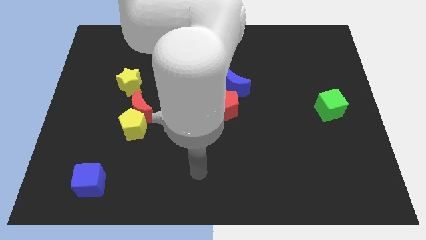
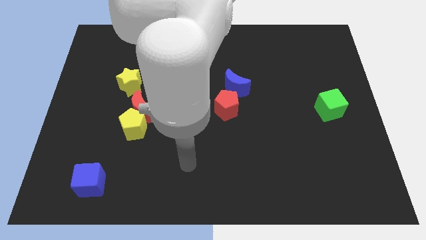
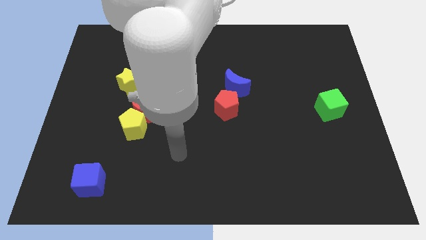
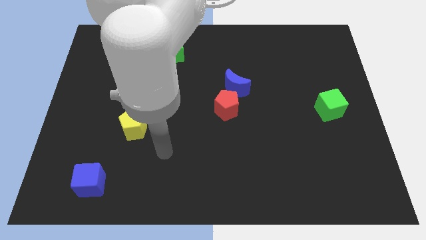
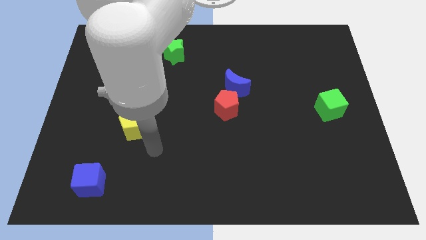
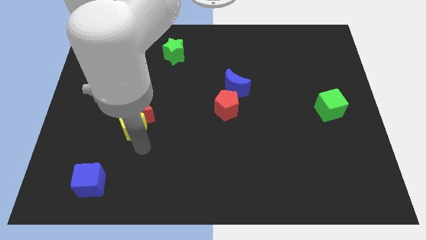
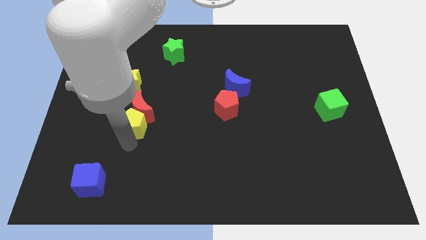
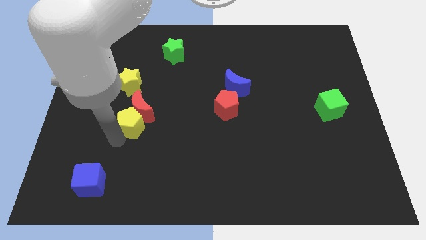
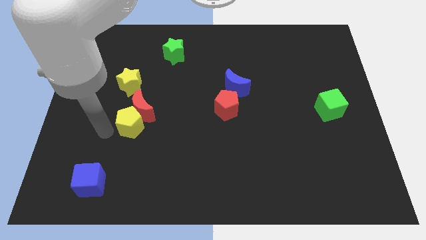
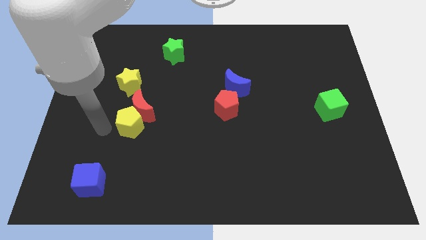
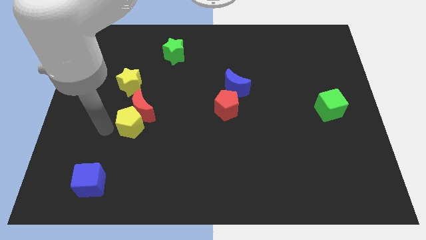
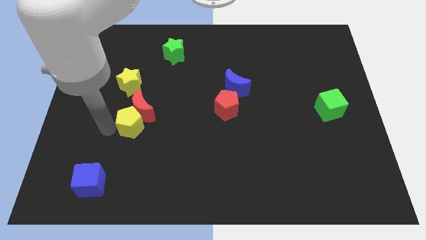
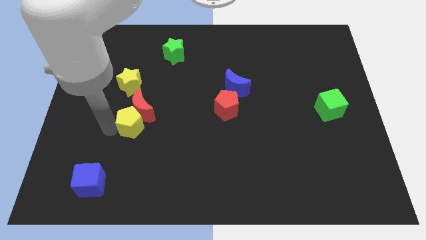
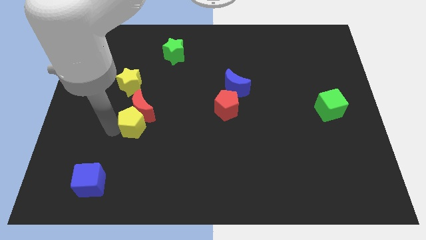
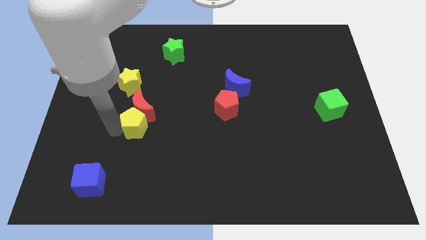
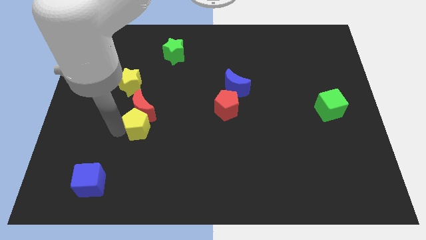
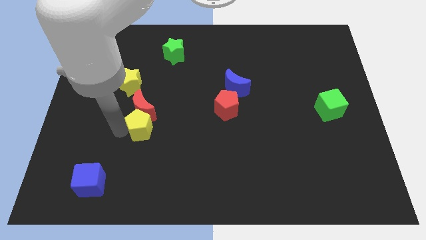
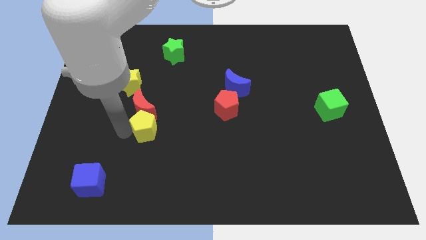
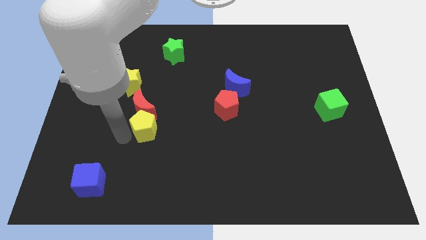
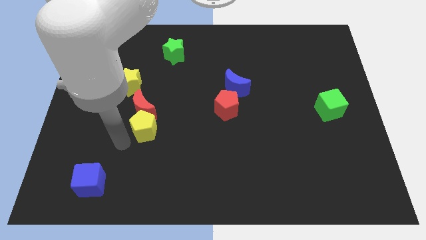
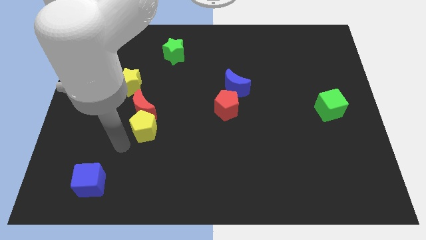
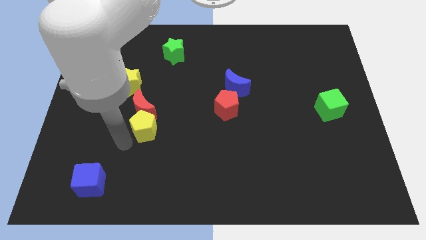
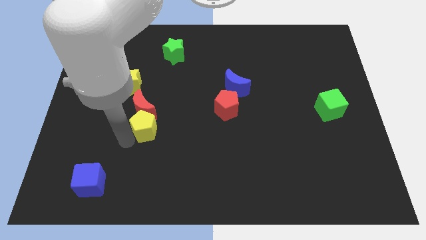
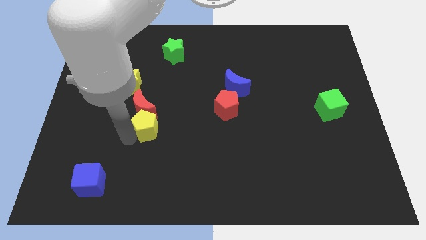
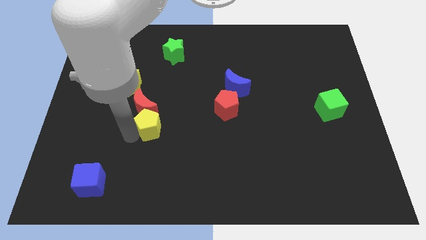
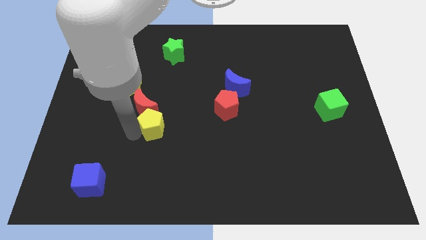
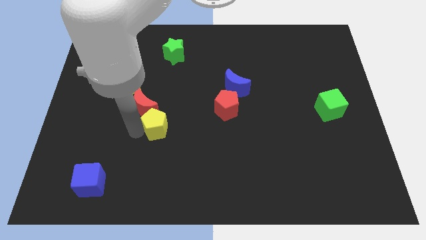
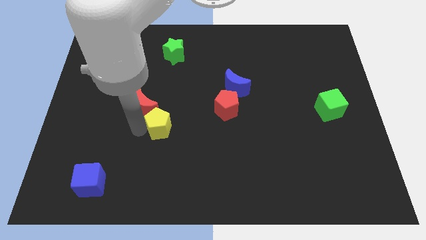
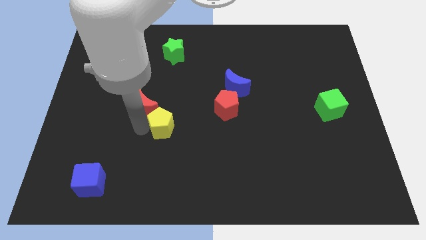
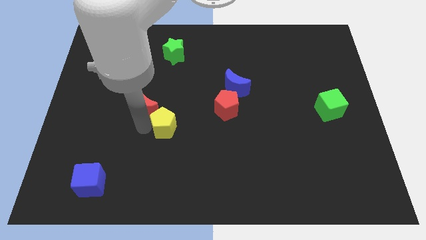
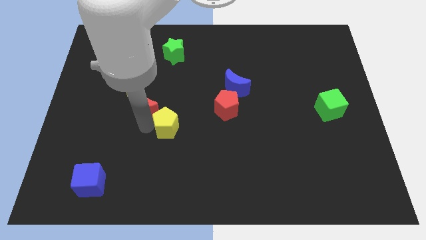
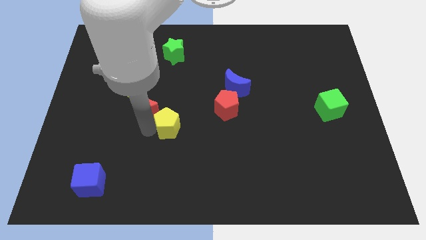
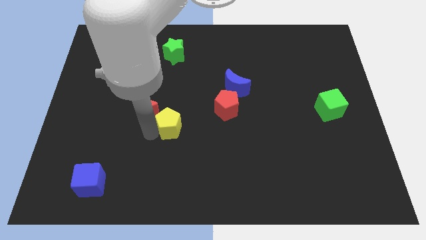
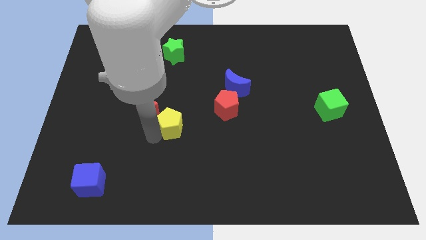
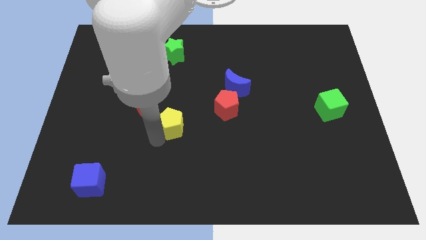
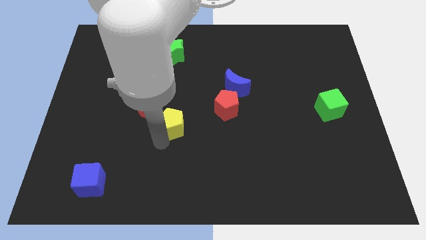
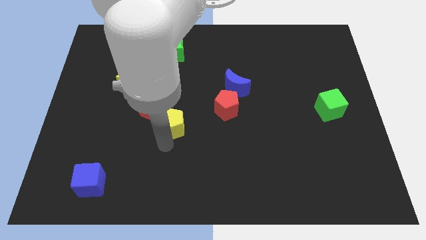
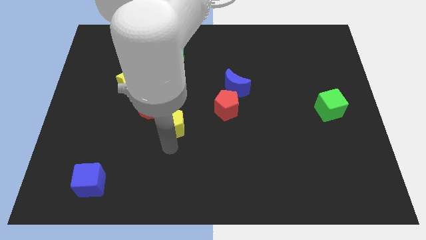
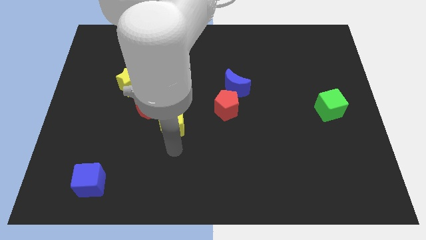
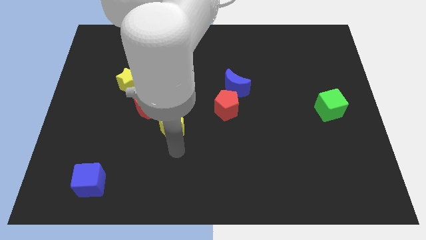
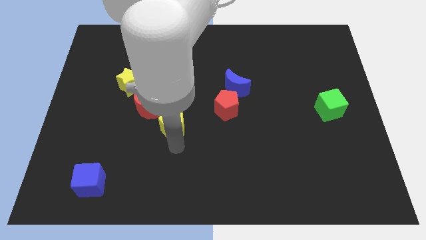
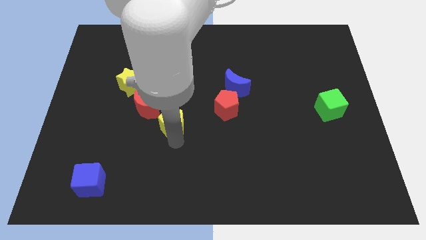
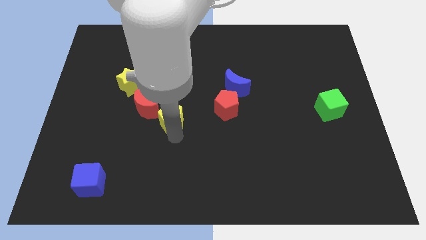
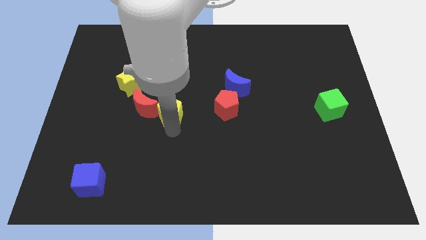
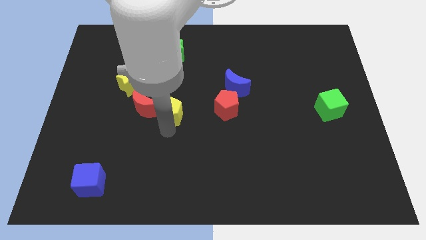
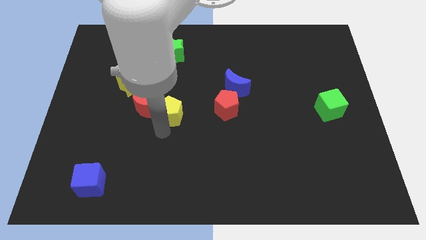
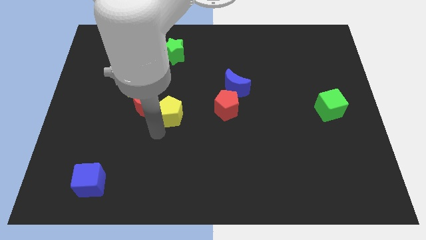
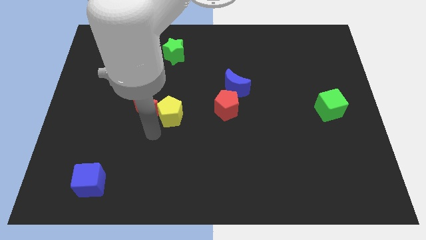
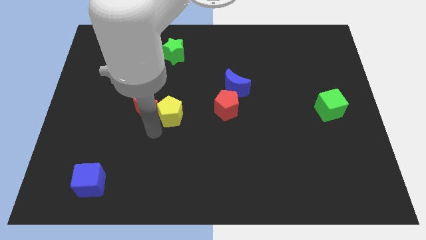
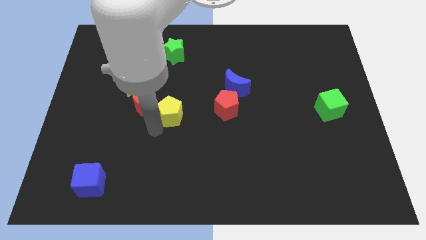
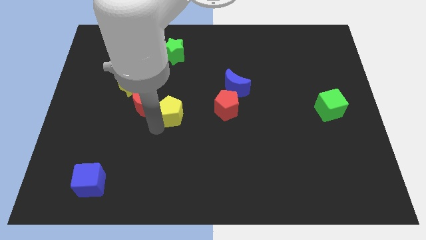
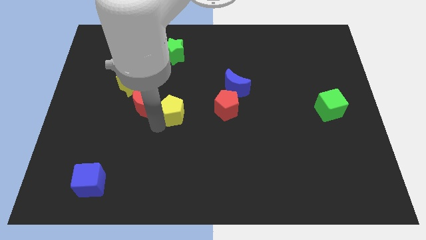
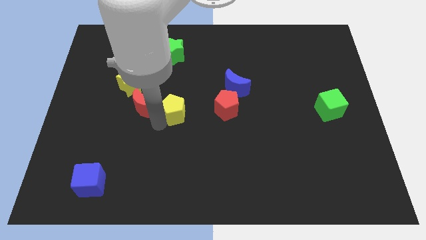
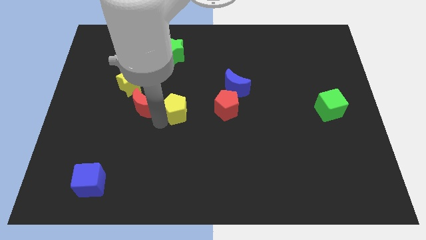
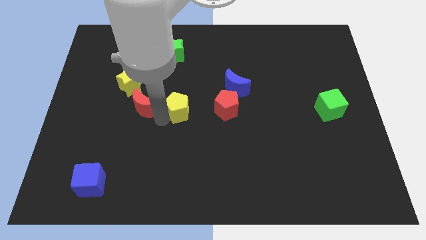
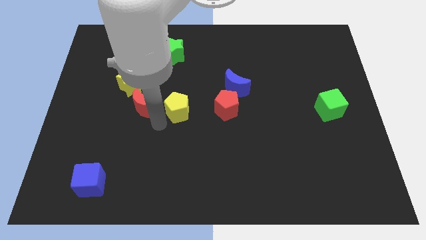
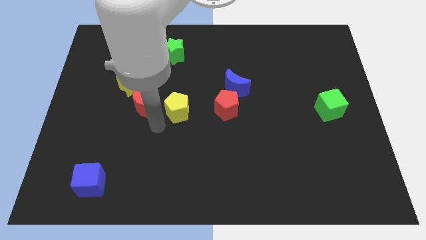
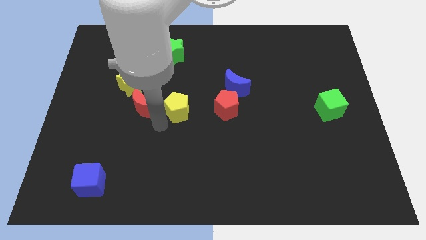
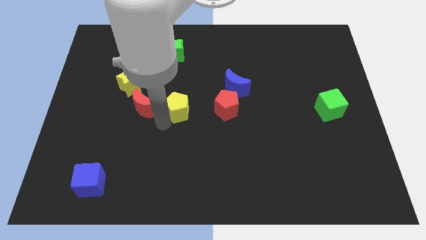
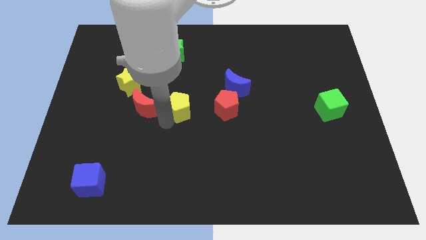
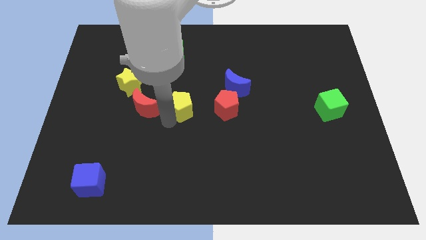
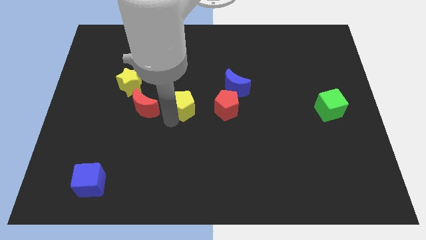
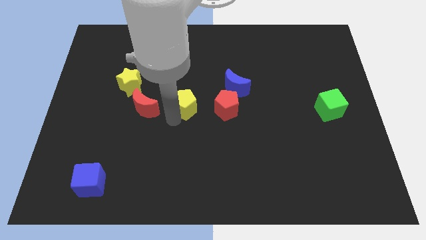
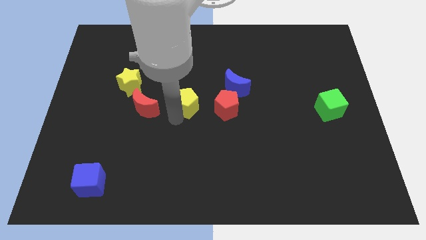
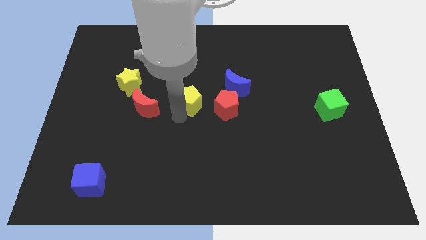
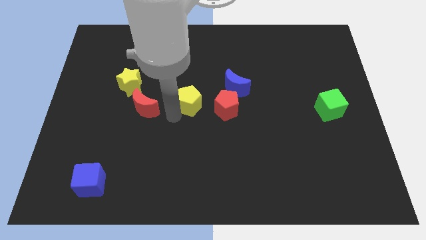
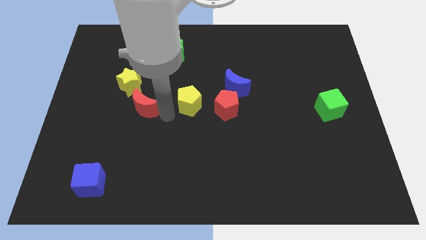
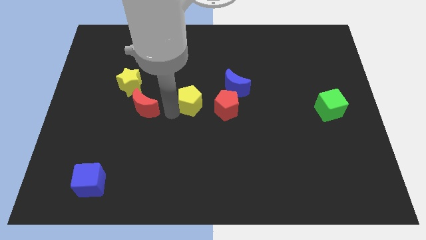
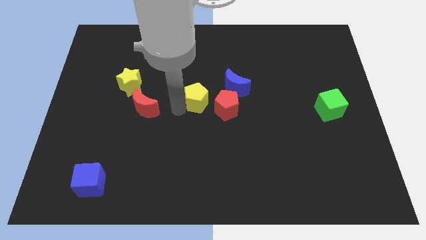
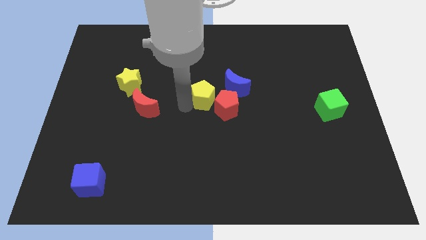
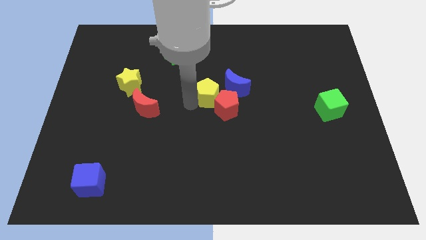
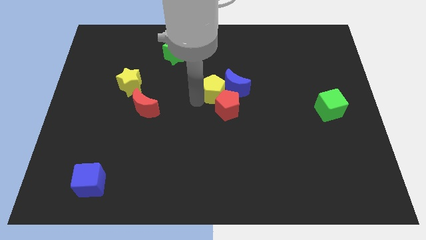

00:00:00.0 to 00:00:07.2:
put the yellow pentagon close to the blue moon

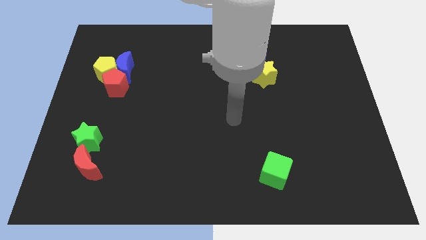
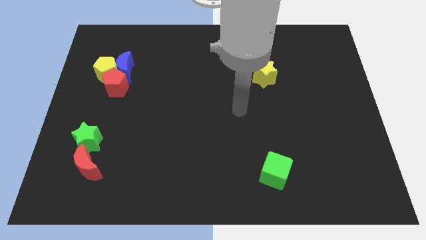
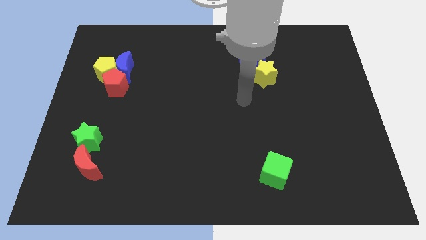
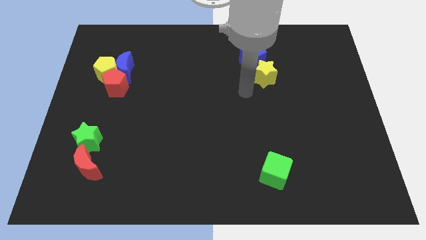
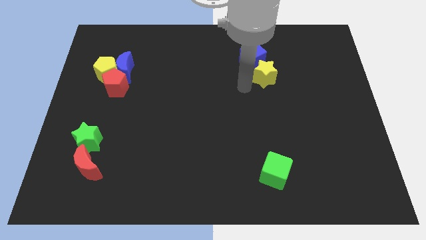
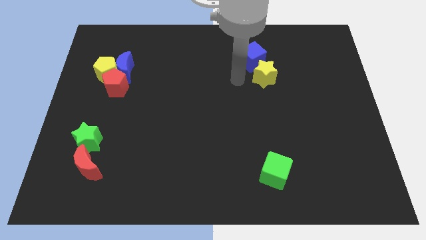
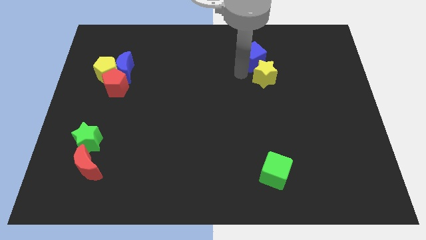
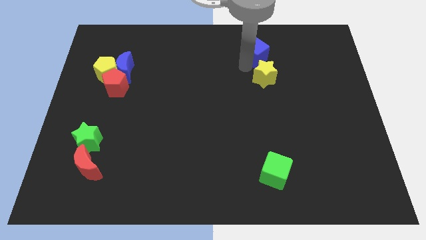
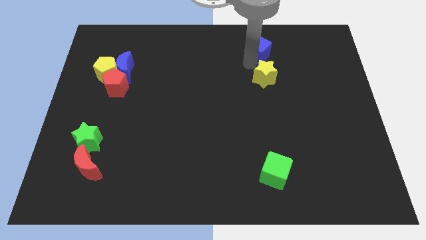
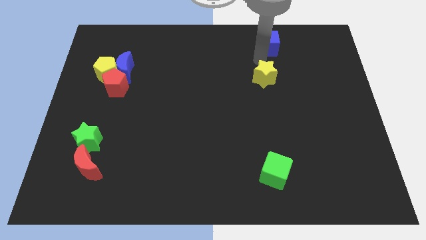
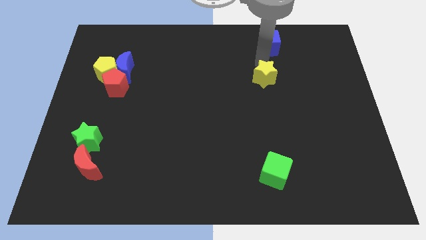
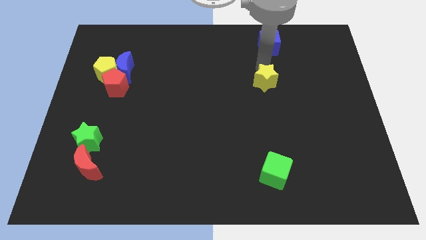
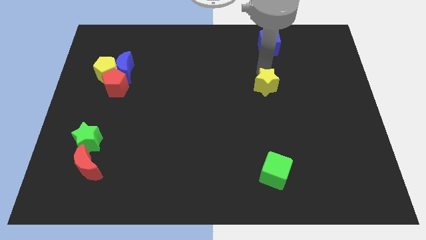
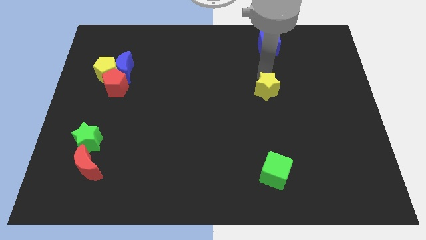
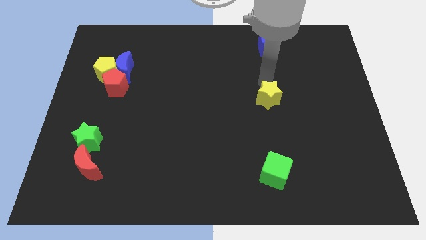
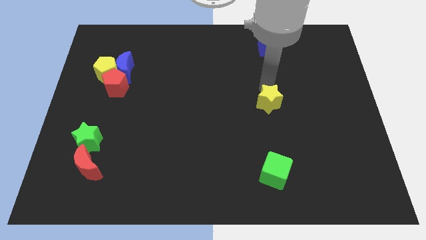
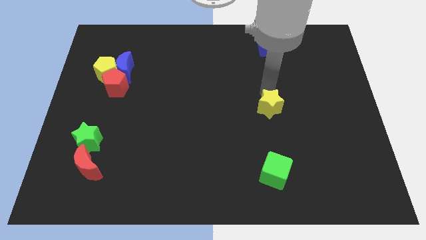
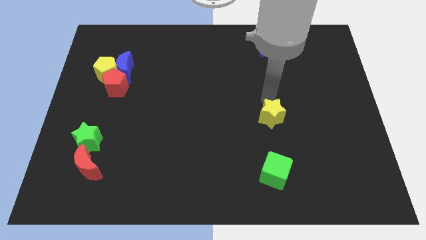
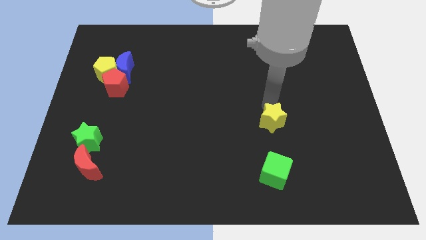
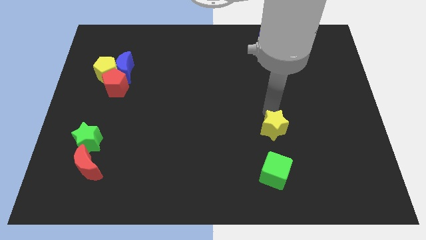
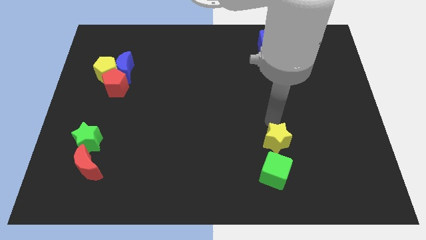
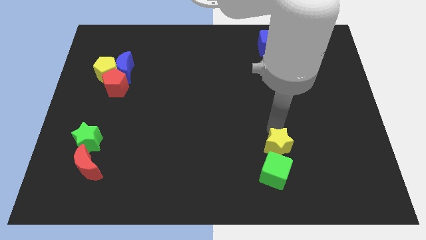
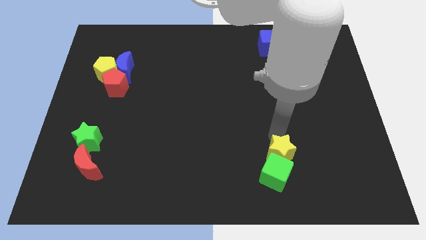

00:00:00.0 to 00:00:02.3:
push the yellow star close to the green cube
